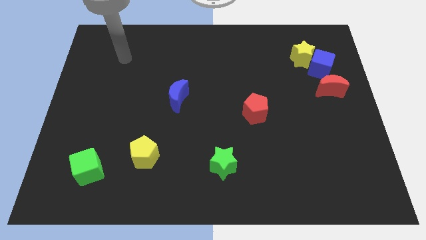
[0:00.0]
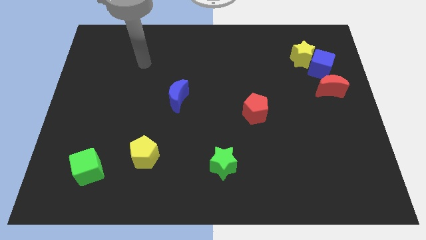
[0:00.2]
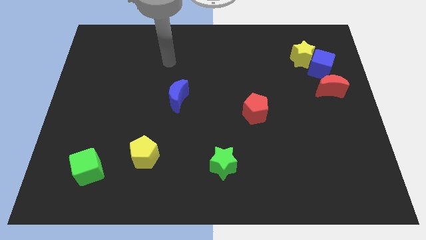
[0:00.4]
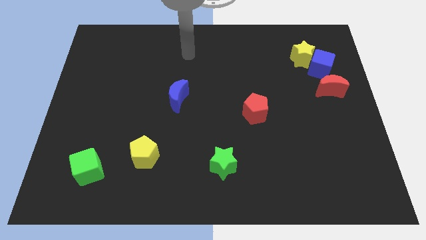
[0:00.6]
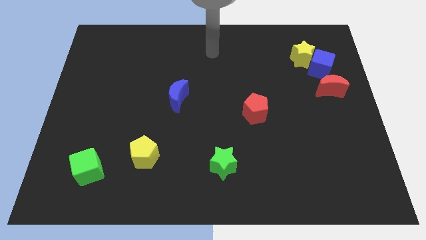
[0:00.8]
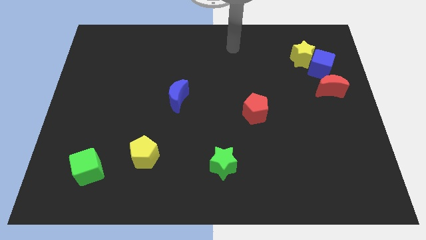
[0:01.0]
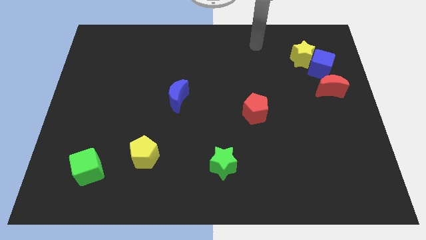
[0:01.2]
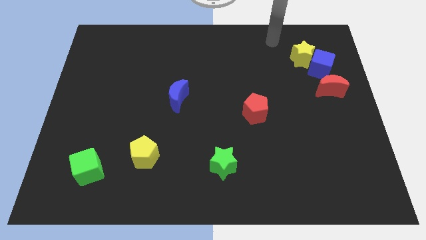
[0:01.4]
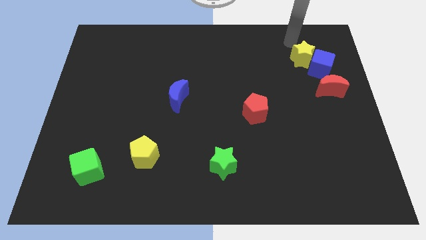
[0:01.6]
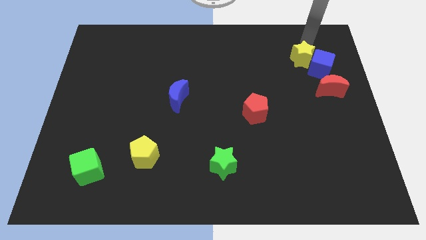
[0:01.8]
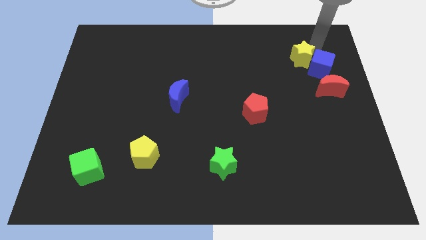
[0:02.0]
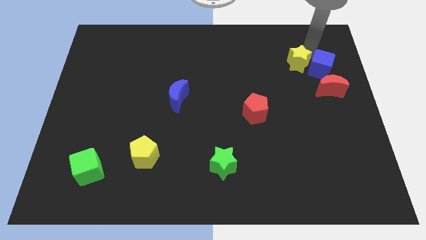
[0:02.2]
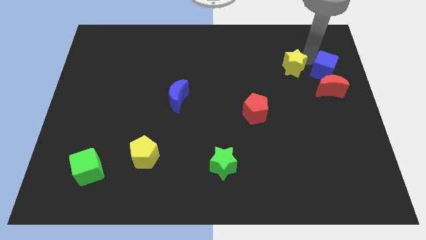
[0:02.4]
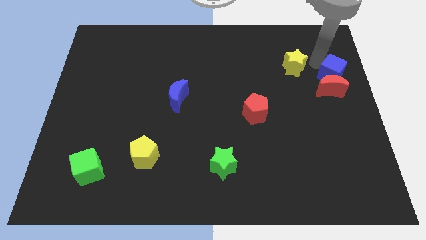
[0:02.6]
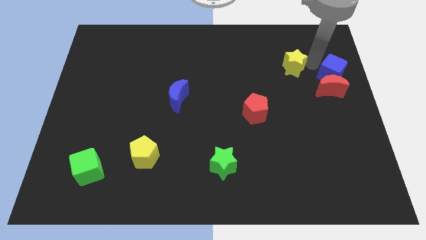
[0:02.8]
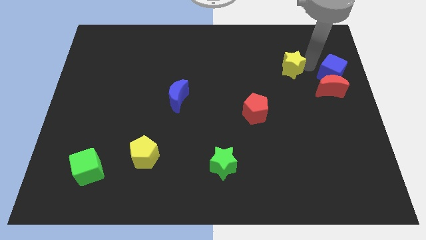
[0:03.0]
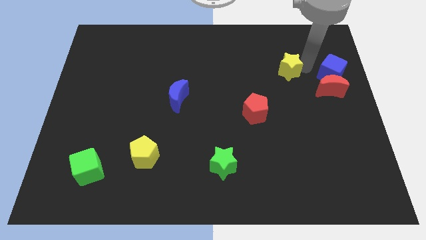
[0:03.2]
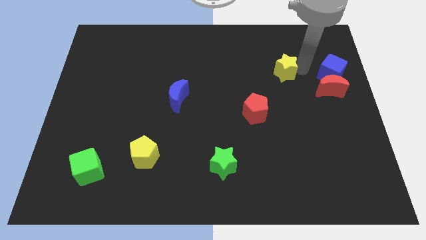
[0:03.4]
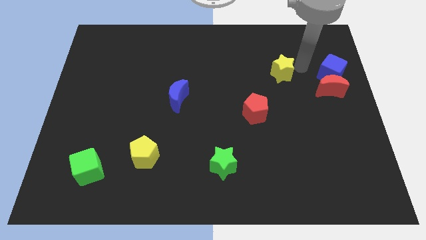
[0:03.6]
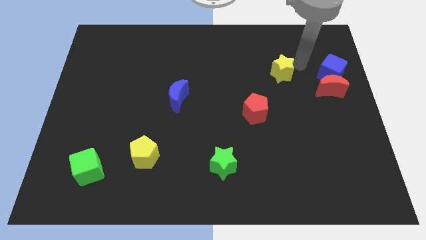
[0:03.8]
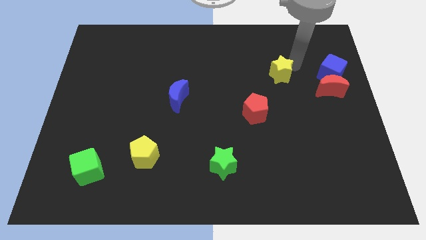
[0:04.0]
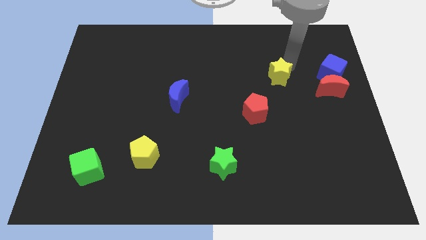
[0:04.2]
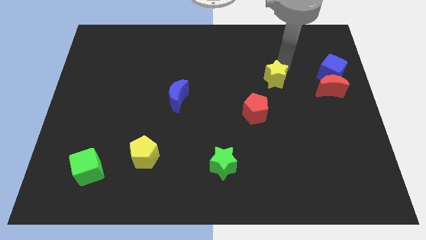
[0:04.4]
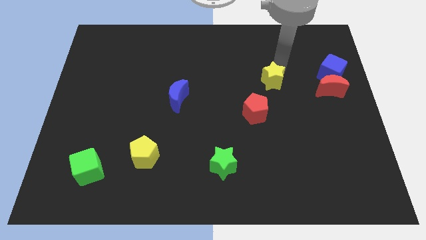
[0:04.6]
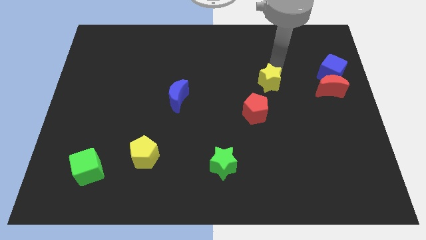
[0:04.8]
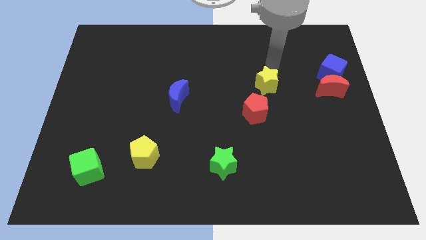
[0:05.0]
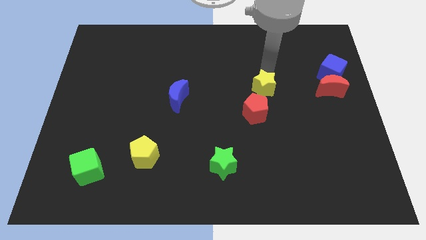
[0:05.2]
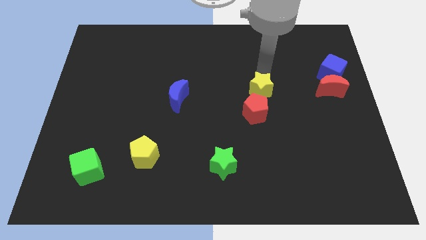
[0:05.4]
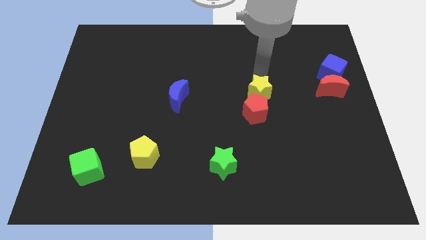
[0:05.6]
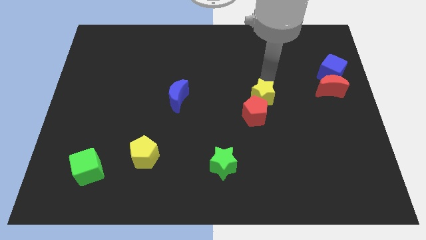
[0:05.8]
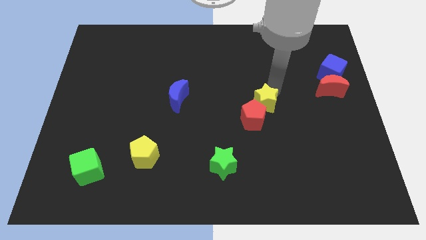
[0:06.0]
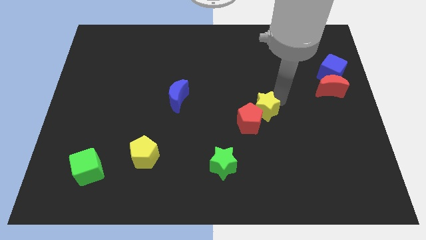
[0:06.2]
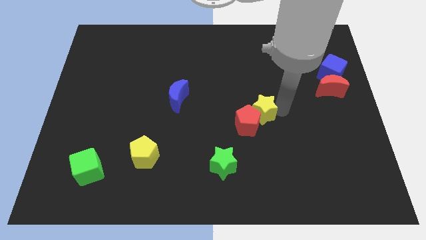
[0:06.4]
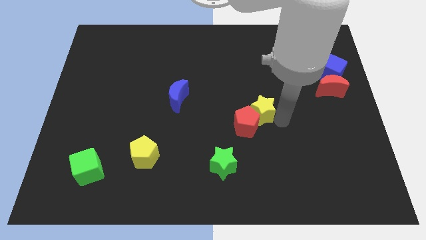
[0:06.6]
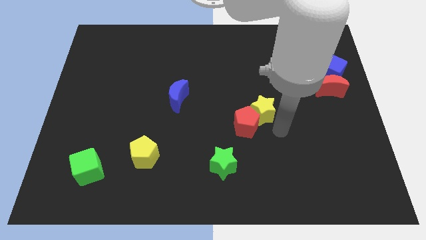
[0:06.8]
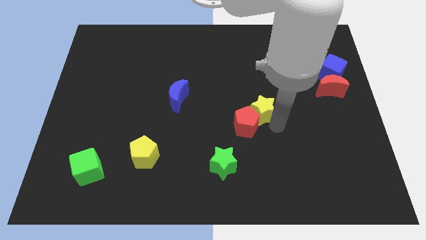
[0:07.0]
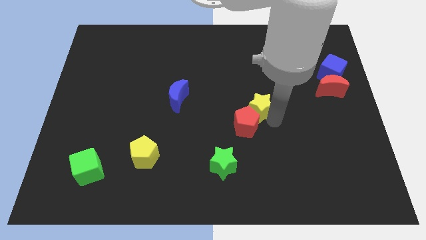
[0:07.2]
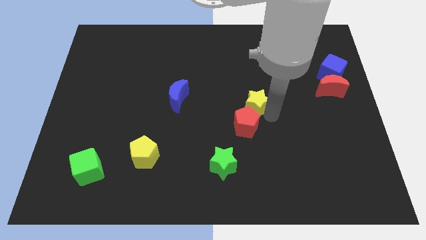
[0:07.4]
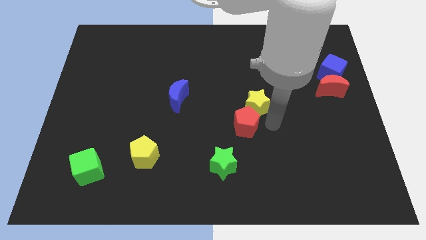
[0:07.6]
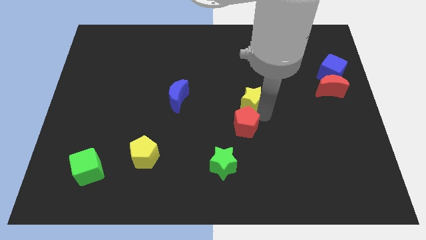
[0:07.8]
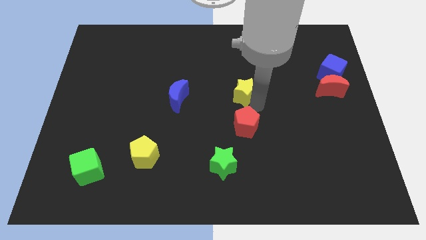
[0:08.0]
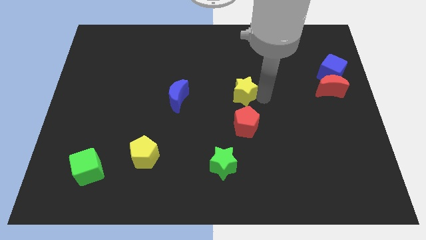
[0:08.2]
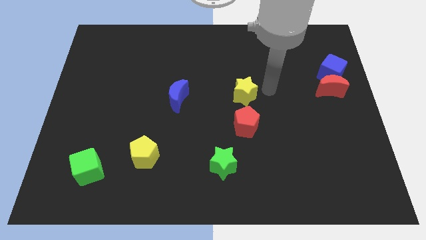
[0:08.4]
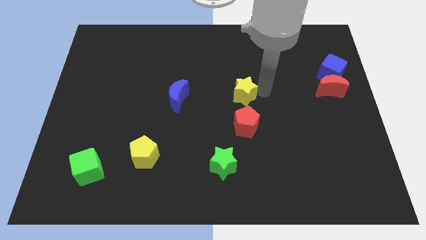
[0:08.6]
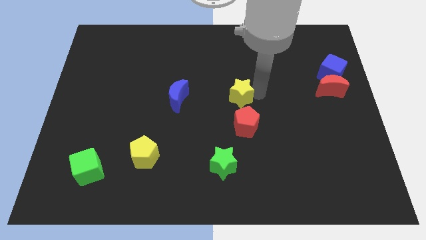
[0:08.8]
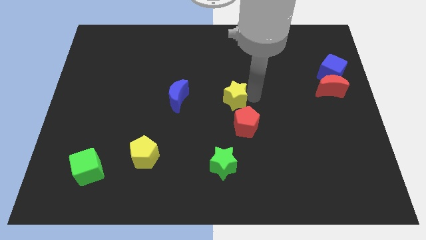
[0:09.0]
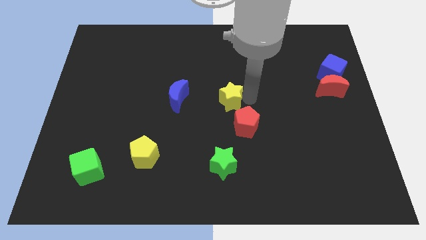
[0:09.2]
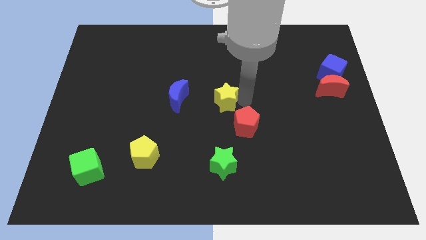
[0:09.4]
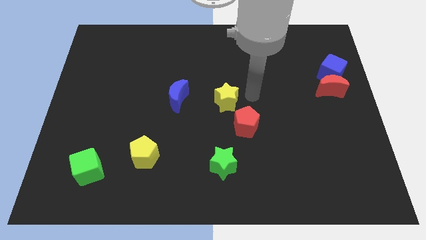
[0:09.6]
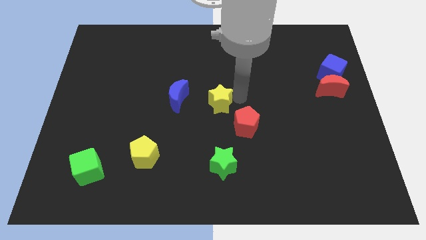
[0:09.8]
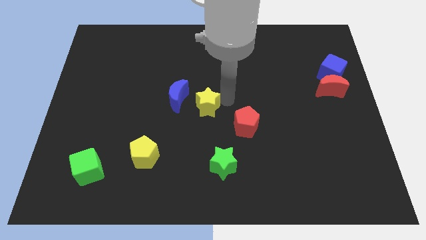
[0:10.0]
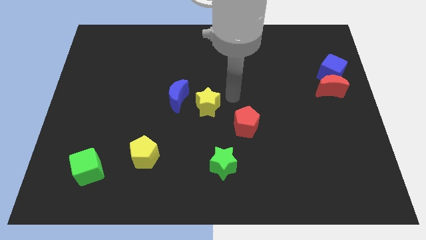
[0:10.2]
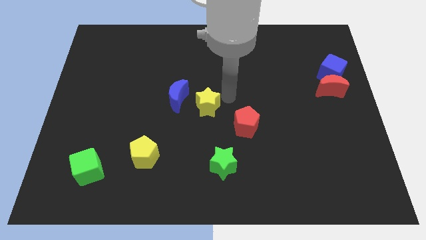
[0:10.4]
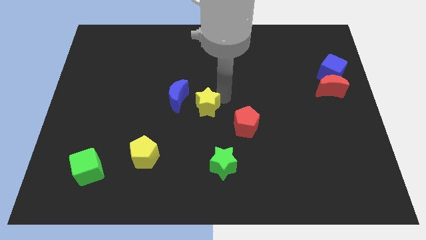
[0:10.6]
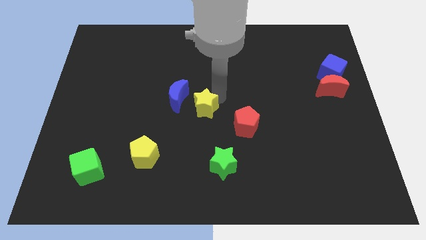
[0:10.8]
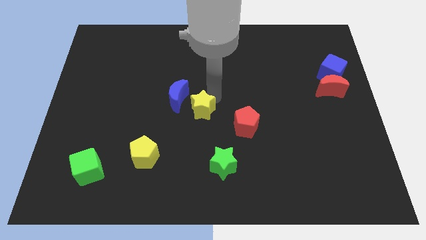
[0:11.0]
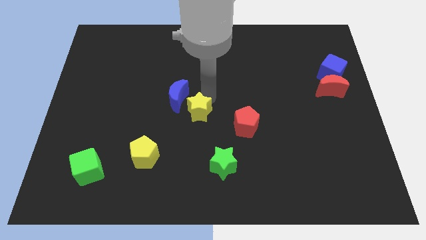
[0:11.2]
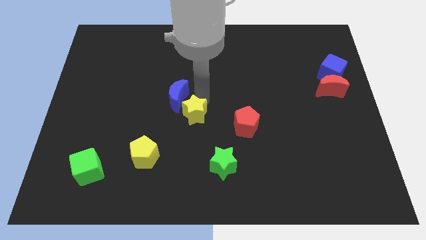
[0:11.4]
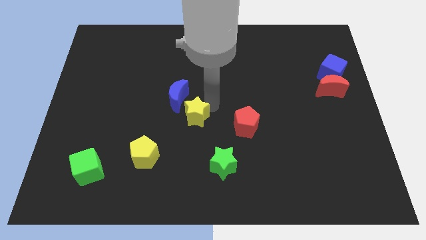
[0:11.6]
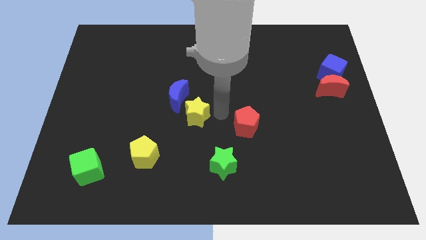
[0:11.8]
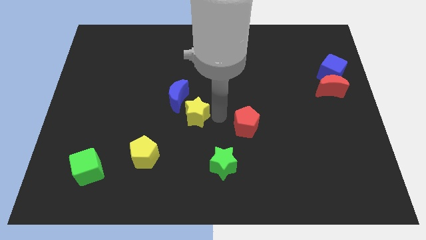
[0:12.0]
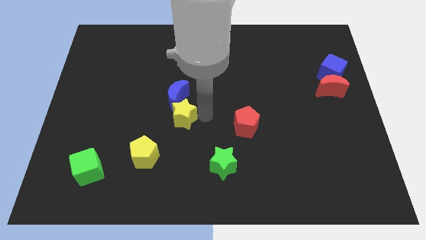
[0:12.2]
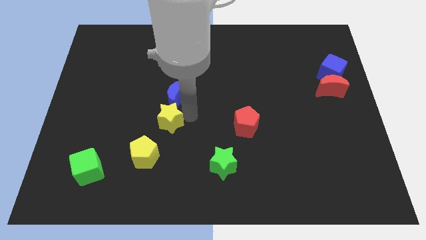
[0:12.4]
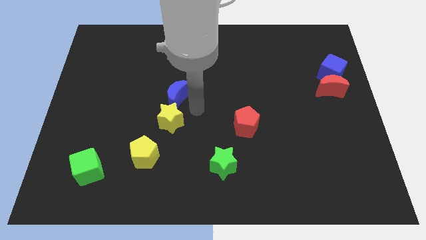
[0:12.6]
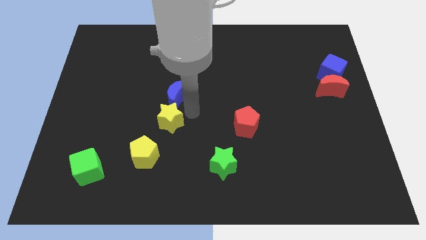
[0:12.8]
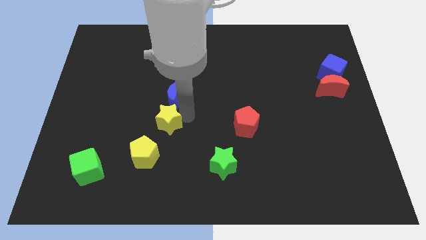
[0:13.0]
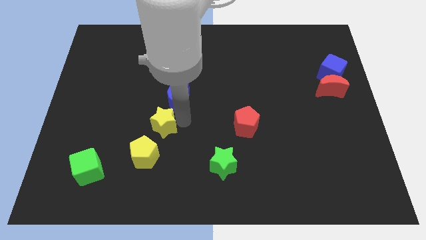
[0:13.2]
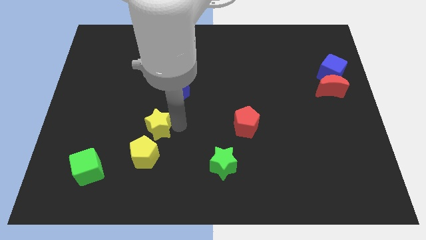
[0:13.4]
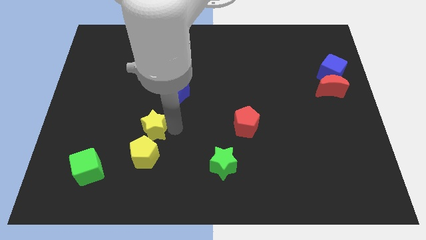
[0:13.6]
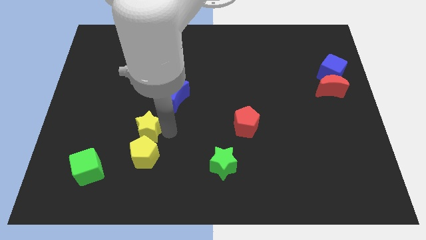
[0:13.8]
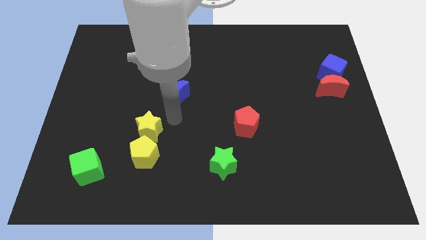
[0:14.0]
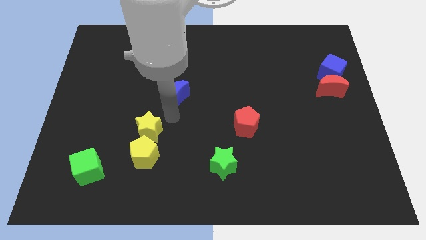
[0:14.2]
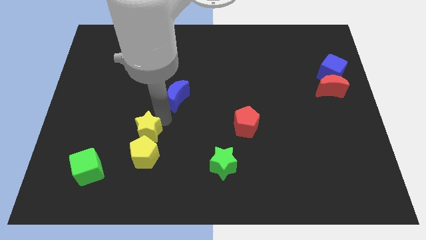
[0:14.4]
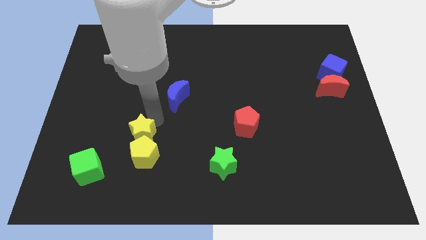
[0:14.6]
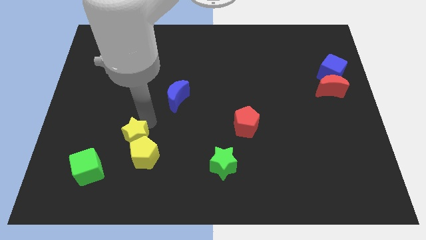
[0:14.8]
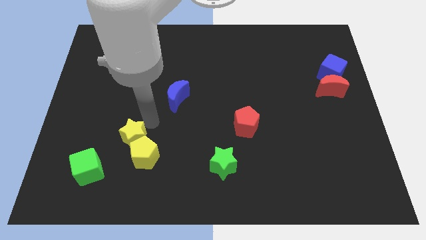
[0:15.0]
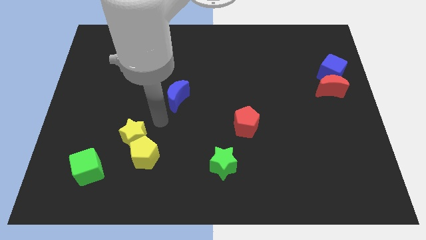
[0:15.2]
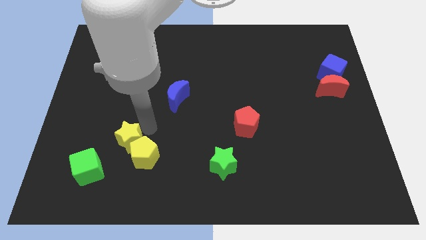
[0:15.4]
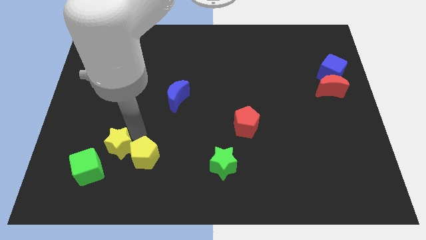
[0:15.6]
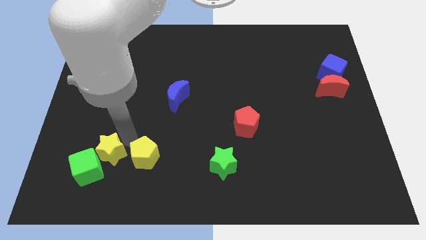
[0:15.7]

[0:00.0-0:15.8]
push the yellow star towards the green cube
